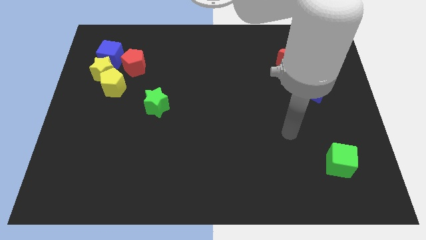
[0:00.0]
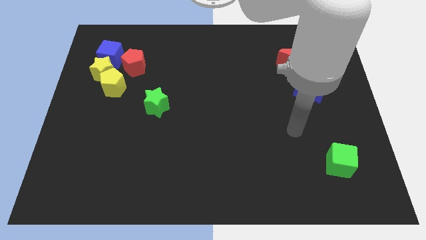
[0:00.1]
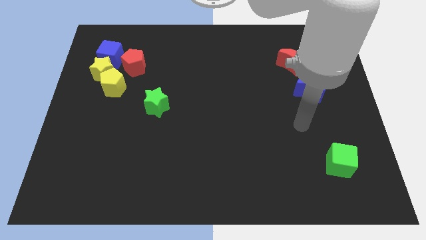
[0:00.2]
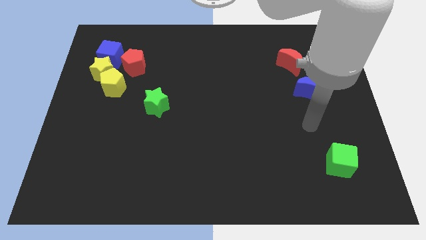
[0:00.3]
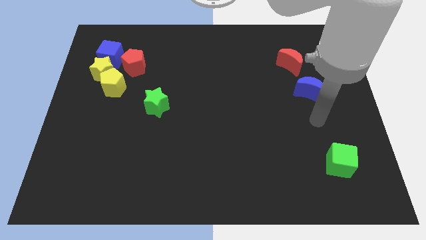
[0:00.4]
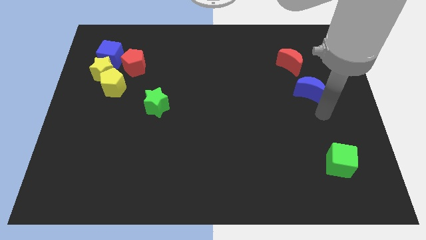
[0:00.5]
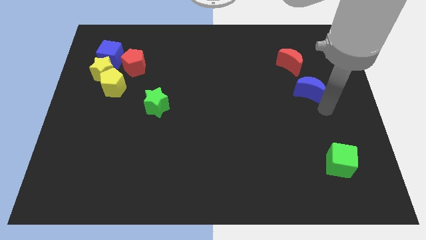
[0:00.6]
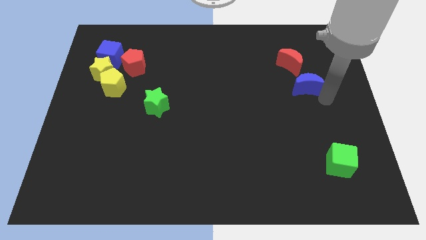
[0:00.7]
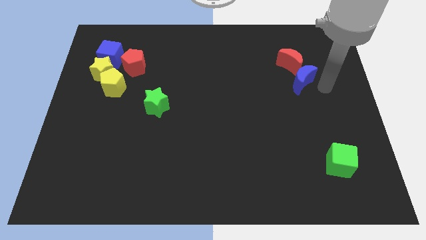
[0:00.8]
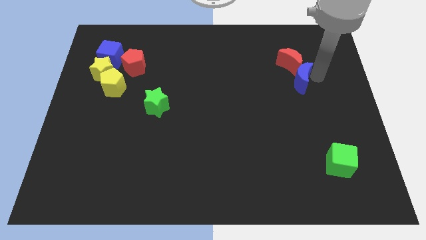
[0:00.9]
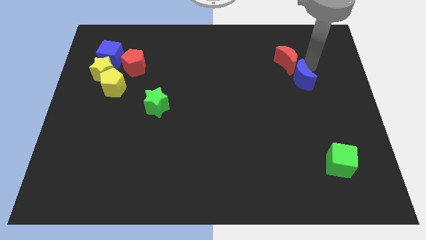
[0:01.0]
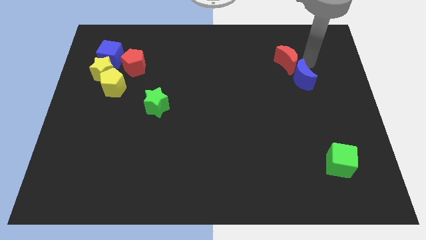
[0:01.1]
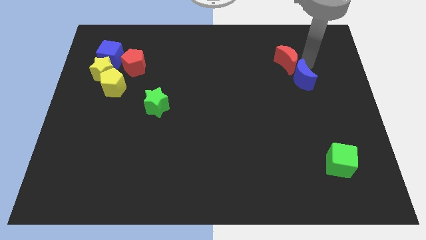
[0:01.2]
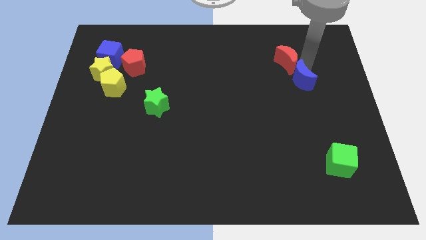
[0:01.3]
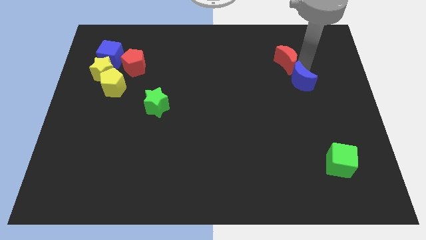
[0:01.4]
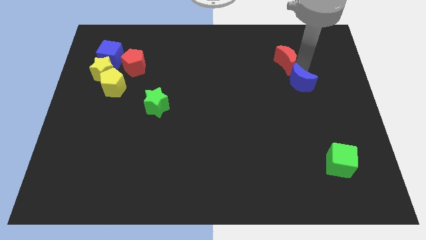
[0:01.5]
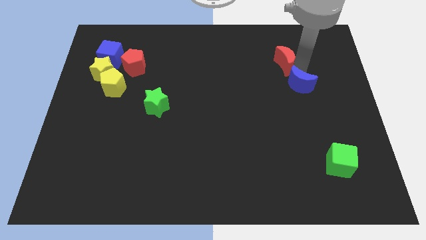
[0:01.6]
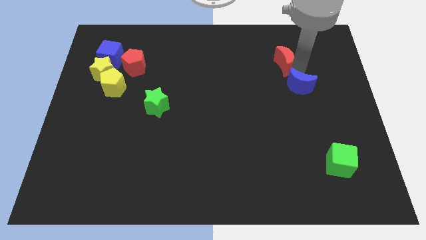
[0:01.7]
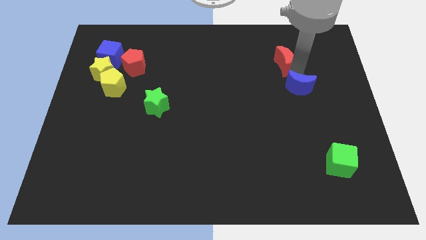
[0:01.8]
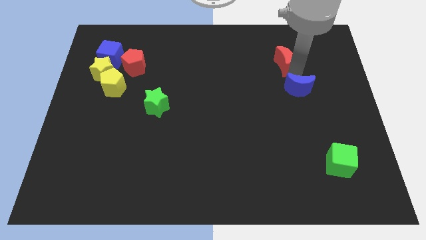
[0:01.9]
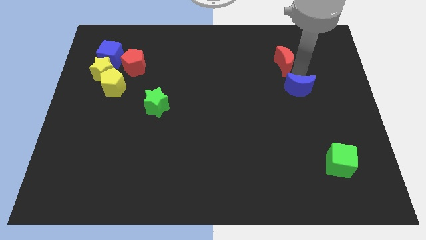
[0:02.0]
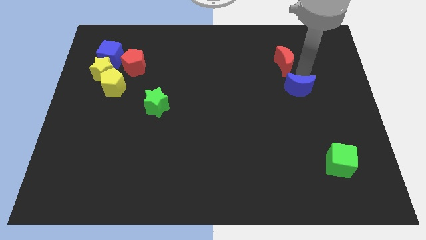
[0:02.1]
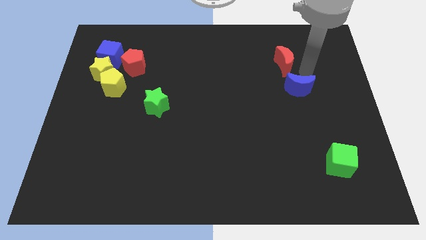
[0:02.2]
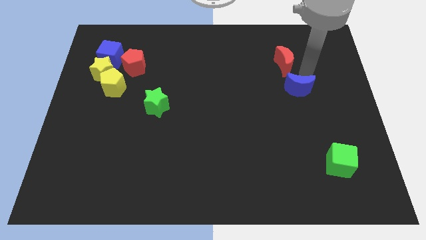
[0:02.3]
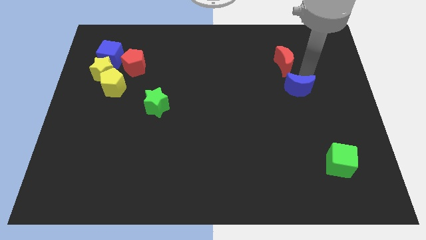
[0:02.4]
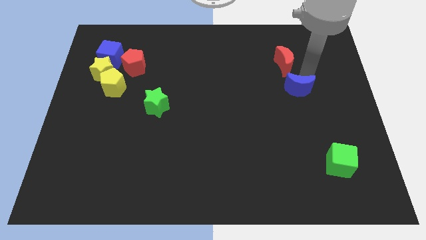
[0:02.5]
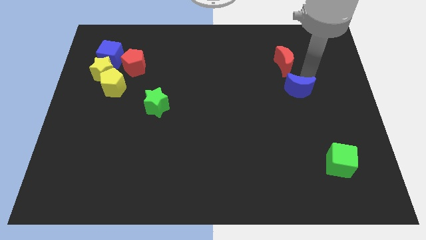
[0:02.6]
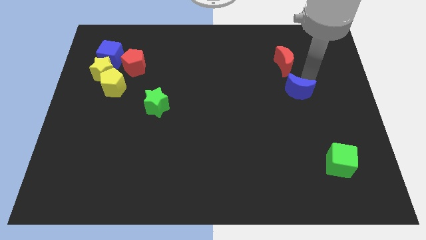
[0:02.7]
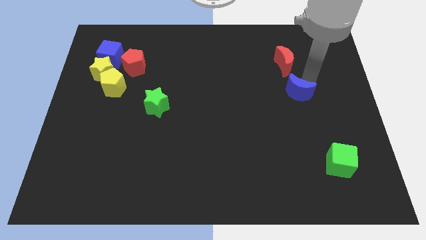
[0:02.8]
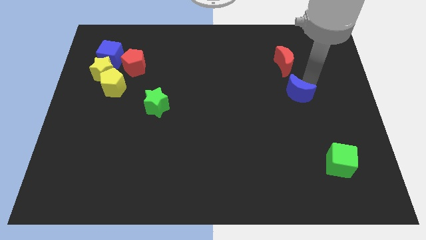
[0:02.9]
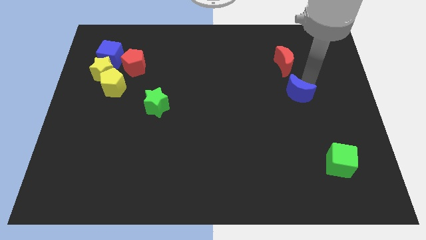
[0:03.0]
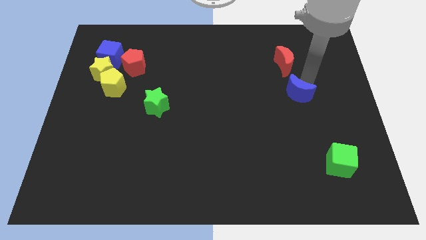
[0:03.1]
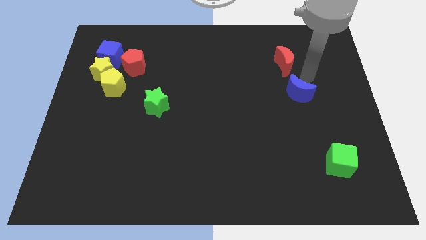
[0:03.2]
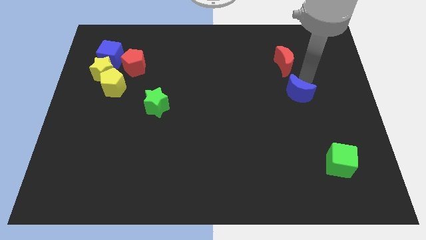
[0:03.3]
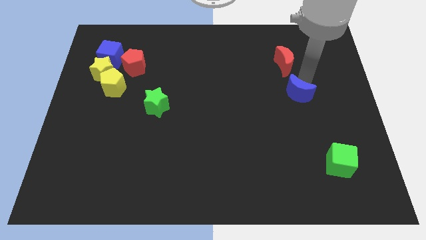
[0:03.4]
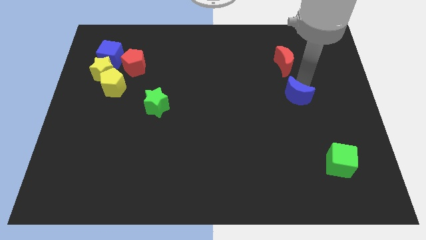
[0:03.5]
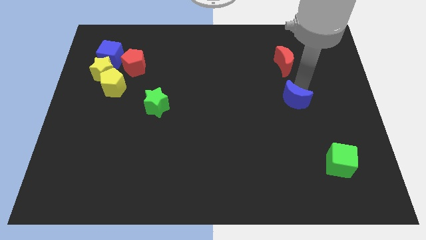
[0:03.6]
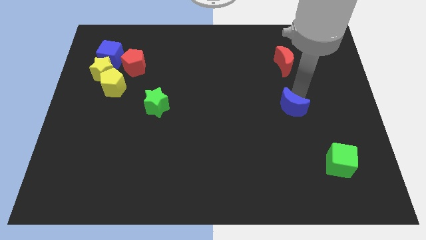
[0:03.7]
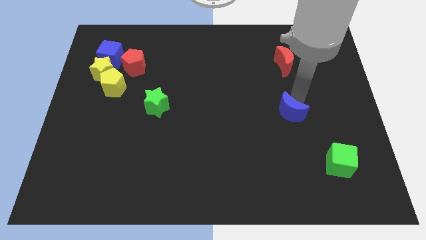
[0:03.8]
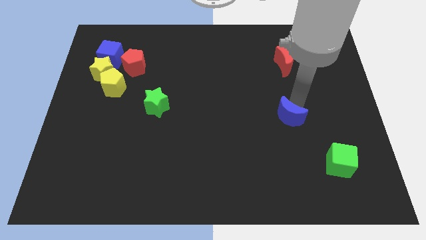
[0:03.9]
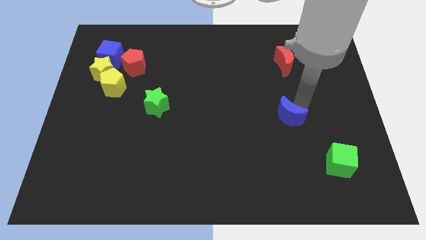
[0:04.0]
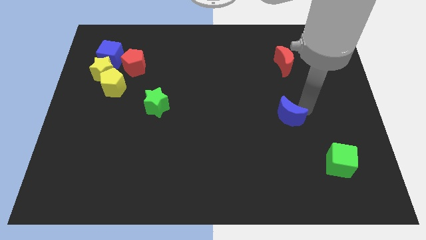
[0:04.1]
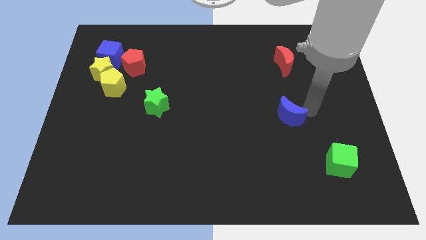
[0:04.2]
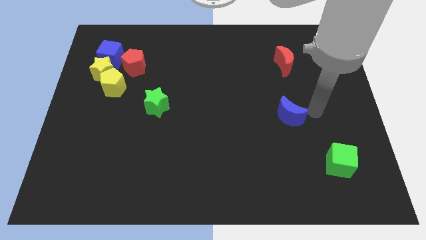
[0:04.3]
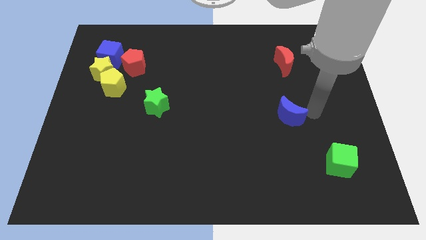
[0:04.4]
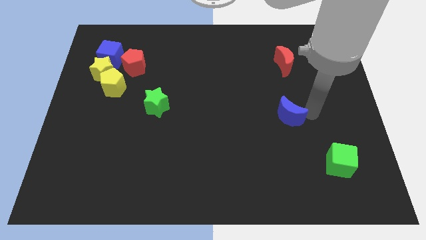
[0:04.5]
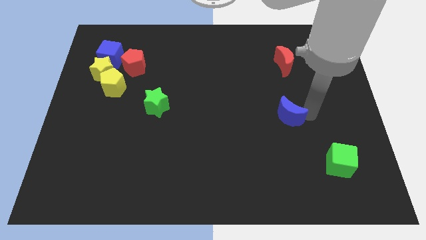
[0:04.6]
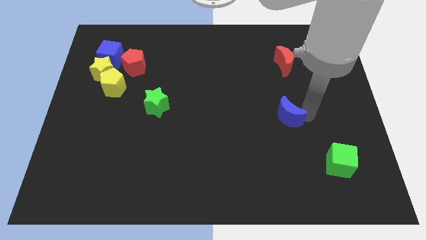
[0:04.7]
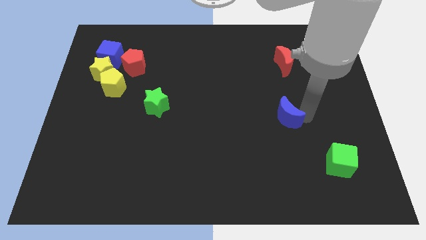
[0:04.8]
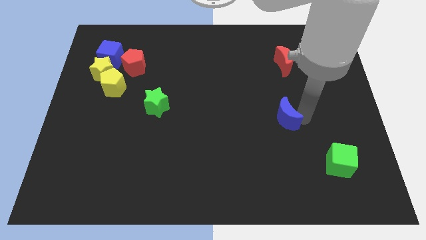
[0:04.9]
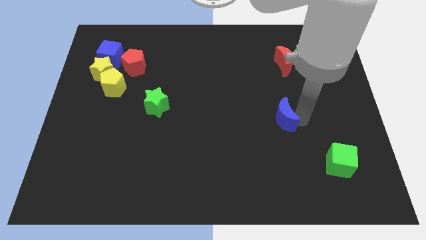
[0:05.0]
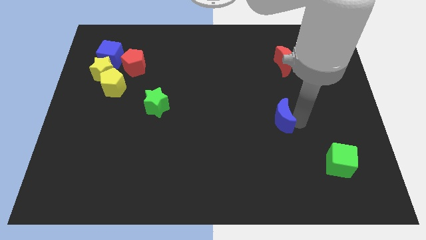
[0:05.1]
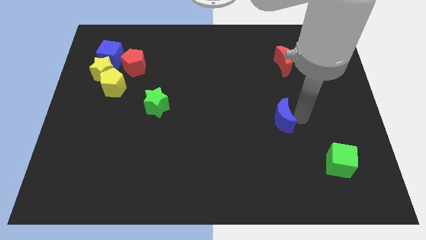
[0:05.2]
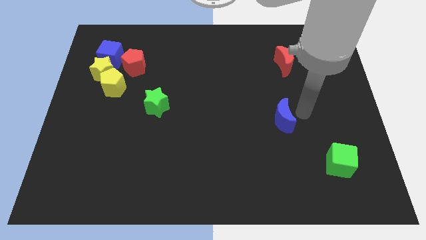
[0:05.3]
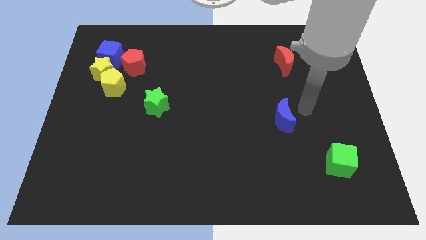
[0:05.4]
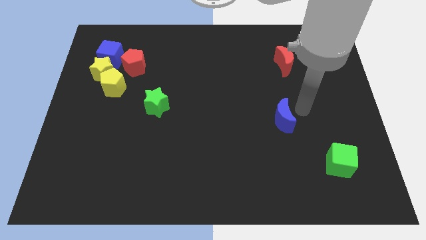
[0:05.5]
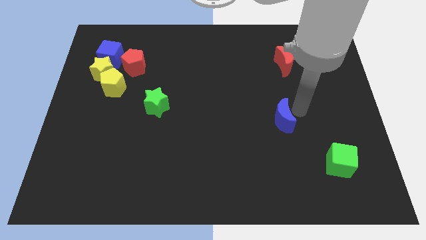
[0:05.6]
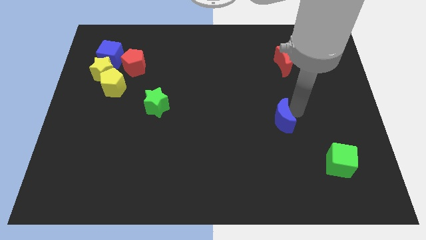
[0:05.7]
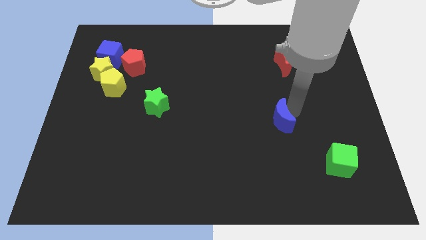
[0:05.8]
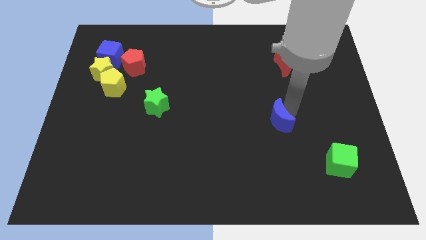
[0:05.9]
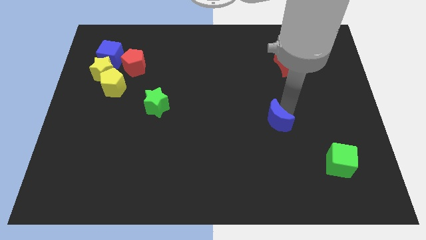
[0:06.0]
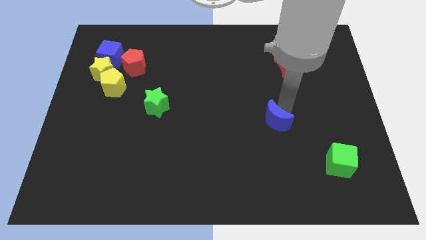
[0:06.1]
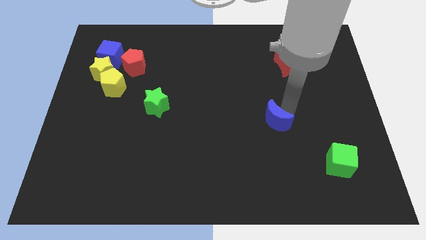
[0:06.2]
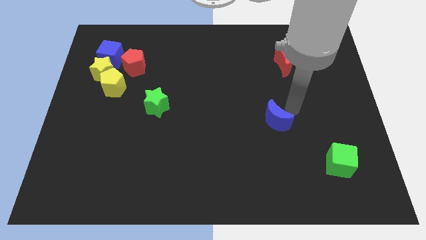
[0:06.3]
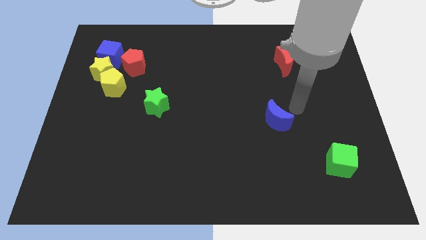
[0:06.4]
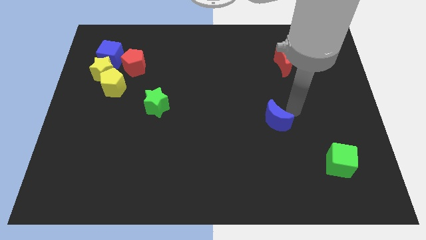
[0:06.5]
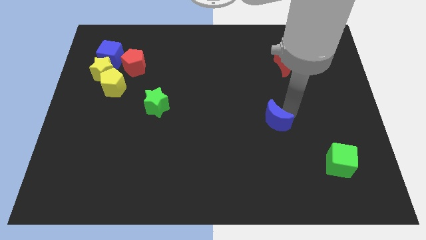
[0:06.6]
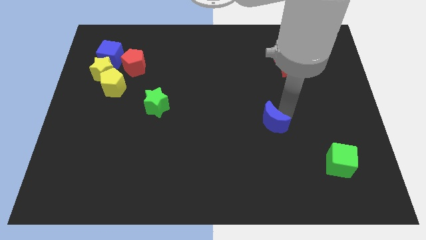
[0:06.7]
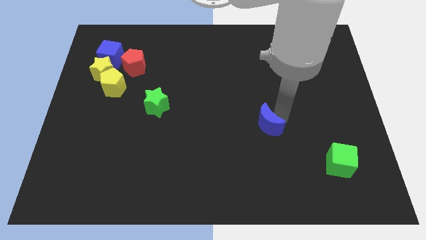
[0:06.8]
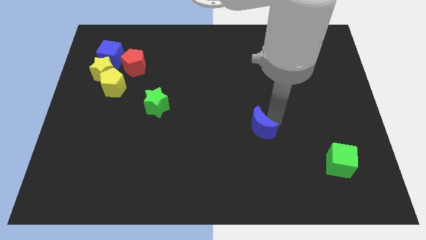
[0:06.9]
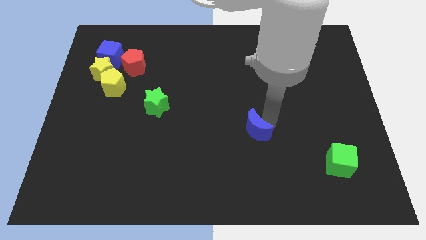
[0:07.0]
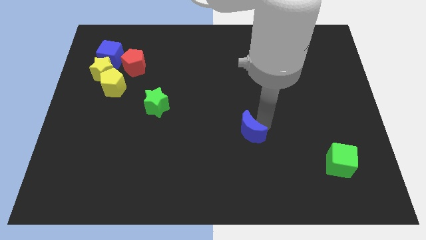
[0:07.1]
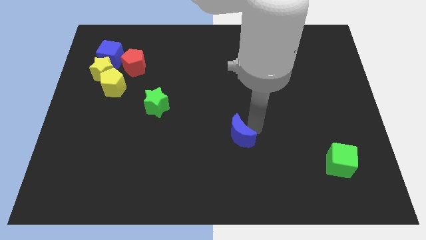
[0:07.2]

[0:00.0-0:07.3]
move the blue moon diagonally downwards and to the left

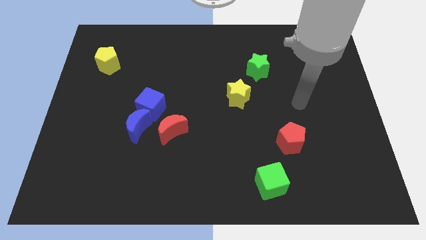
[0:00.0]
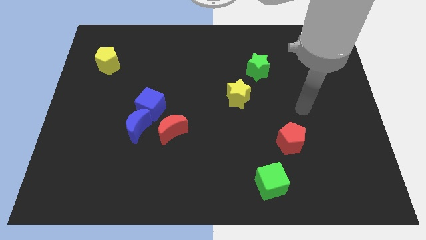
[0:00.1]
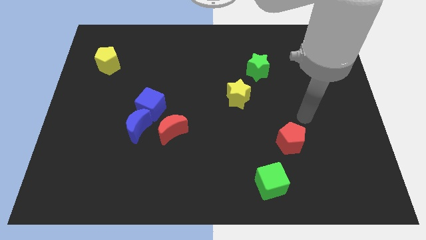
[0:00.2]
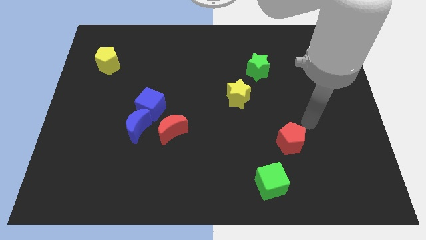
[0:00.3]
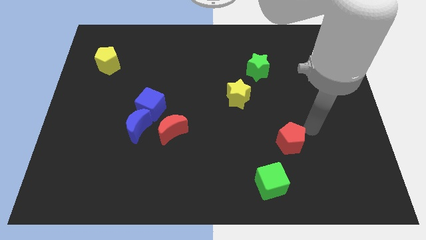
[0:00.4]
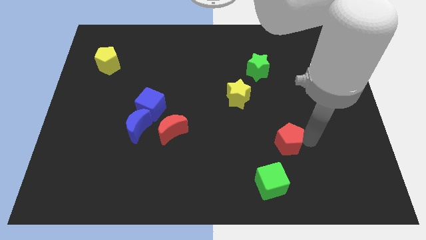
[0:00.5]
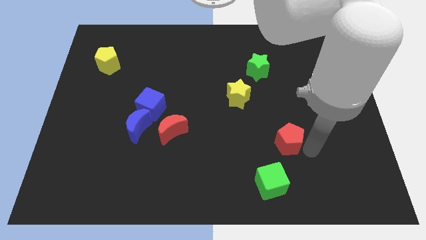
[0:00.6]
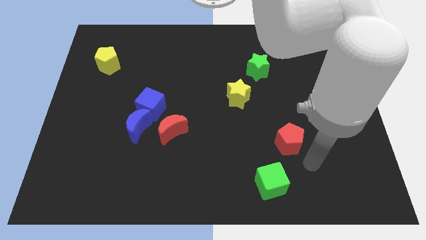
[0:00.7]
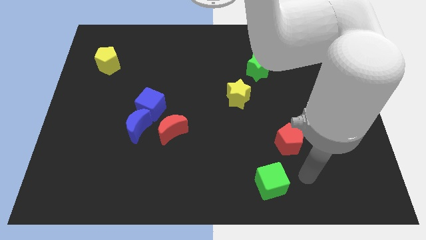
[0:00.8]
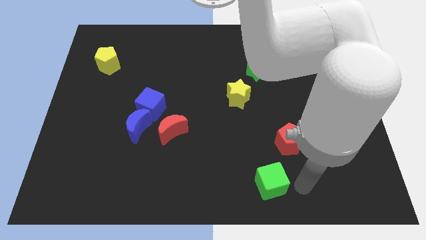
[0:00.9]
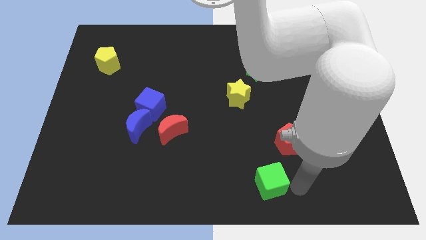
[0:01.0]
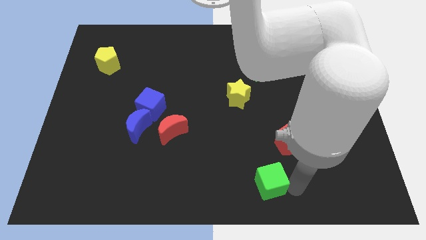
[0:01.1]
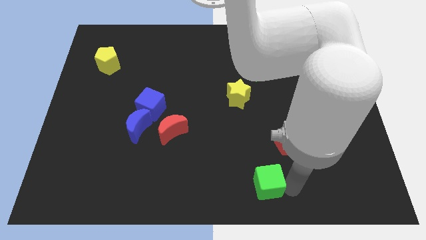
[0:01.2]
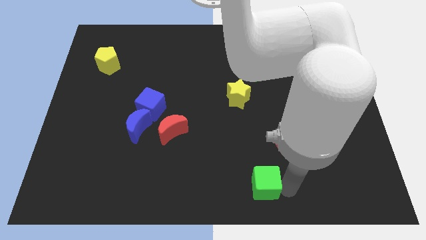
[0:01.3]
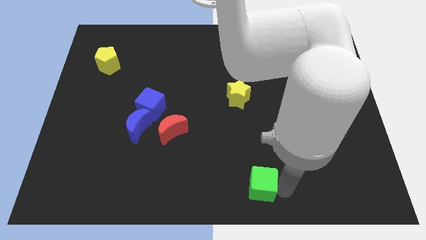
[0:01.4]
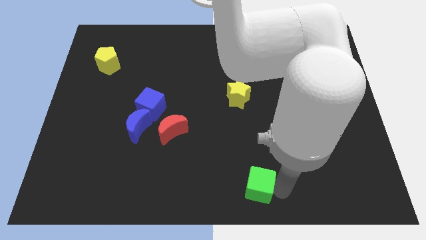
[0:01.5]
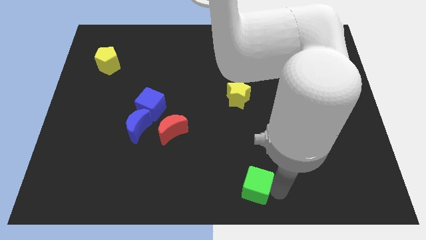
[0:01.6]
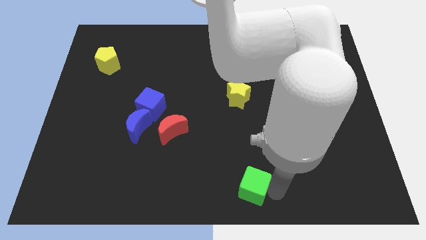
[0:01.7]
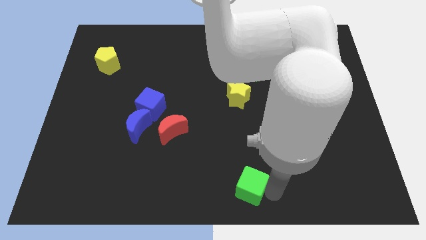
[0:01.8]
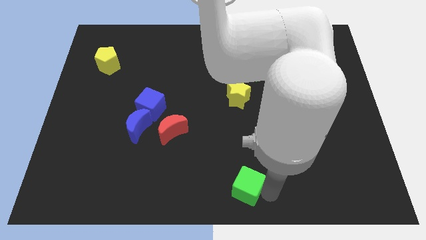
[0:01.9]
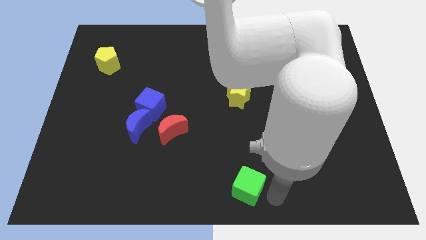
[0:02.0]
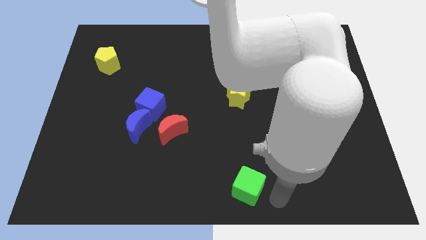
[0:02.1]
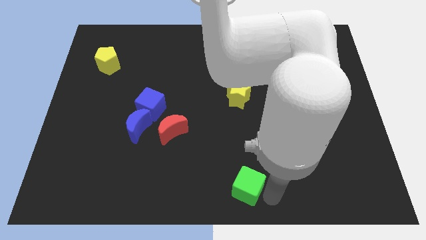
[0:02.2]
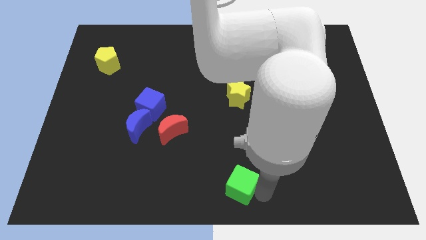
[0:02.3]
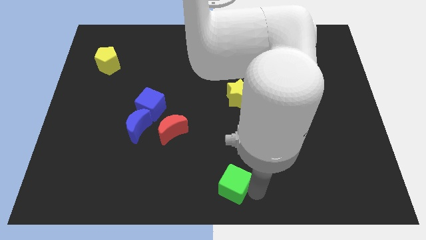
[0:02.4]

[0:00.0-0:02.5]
slightly slide the green cube left
